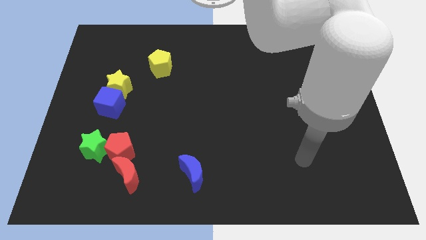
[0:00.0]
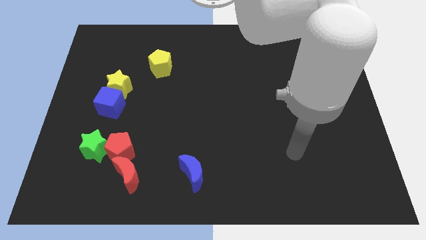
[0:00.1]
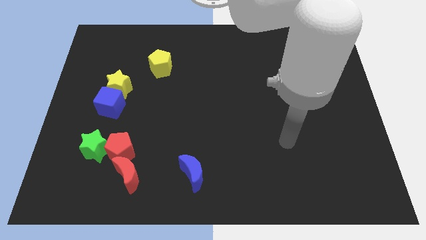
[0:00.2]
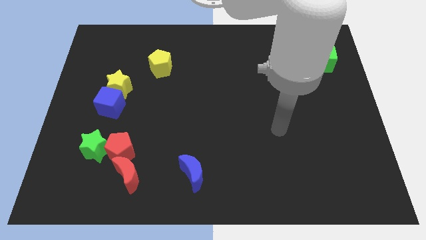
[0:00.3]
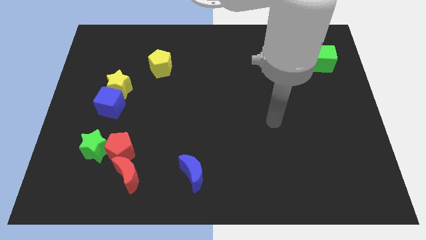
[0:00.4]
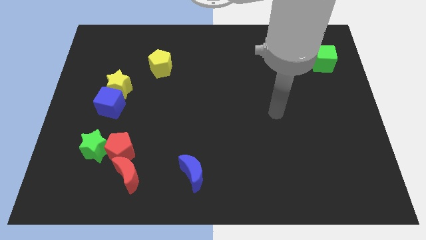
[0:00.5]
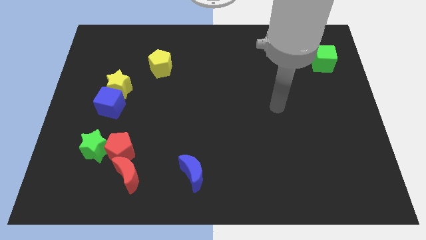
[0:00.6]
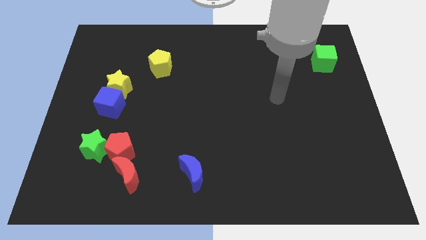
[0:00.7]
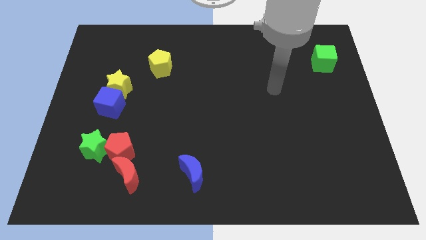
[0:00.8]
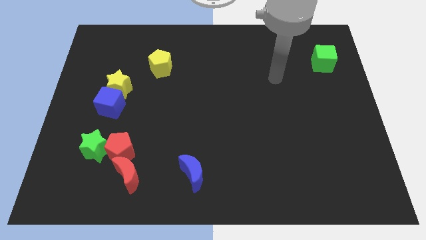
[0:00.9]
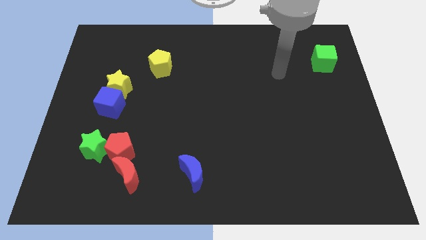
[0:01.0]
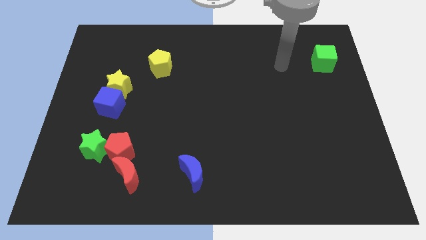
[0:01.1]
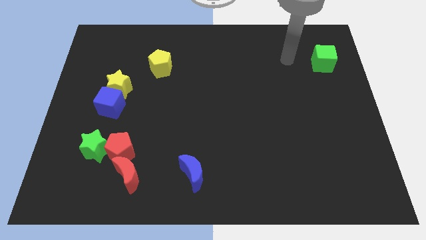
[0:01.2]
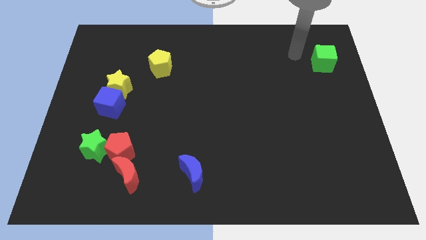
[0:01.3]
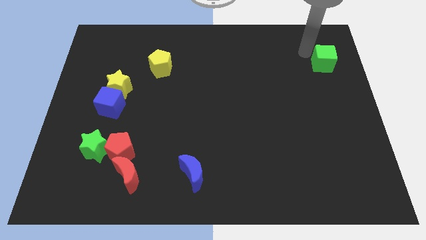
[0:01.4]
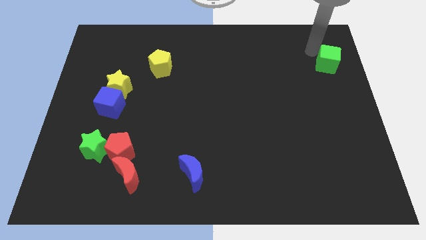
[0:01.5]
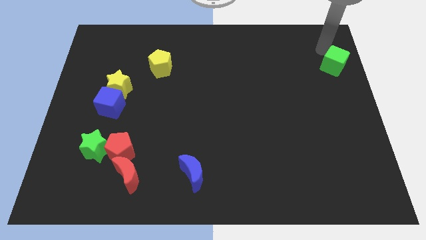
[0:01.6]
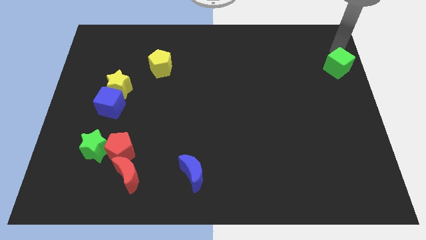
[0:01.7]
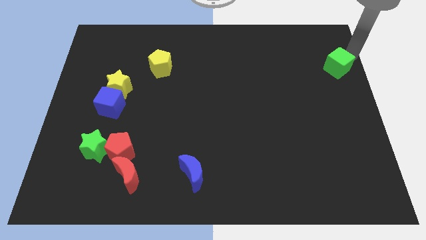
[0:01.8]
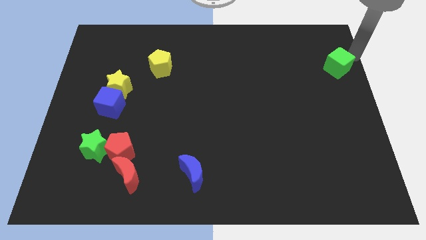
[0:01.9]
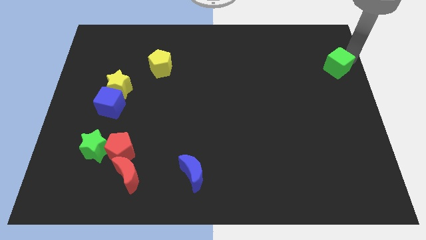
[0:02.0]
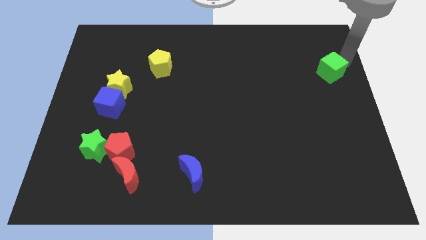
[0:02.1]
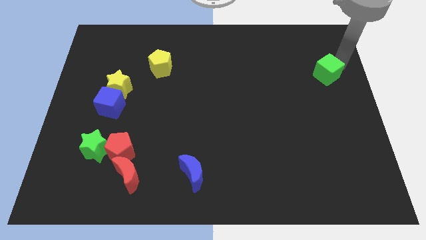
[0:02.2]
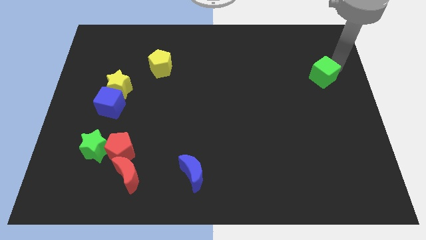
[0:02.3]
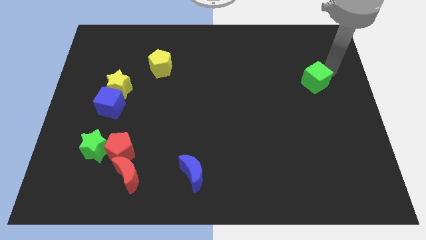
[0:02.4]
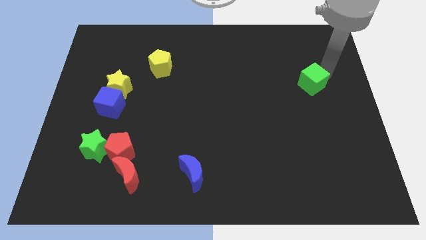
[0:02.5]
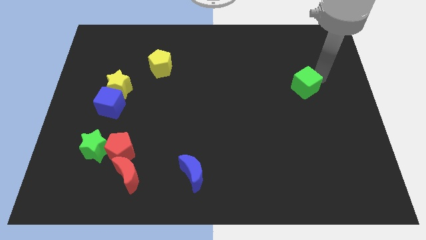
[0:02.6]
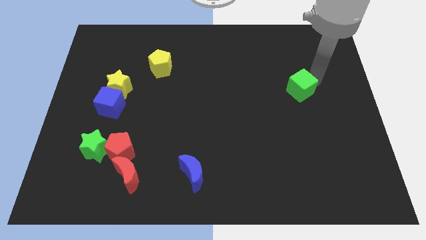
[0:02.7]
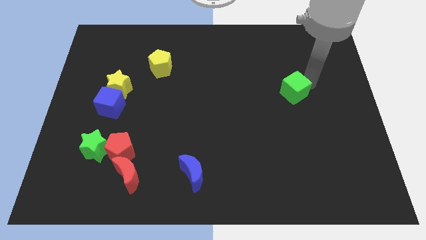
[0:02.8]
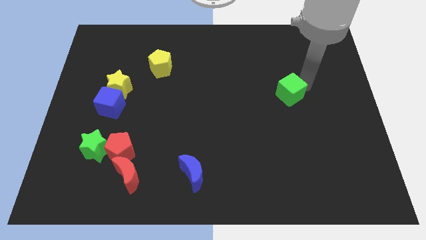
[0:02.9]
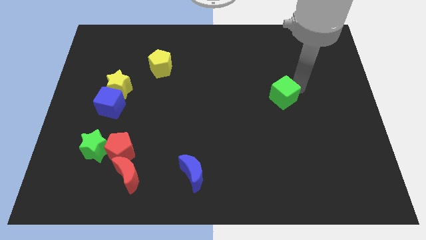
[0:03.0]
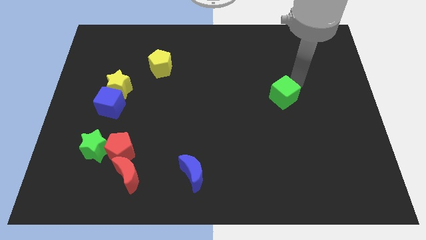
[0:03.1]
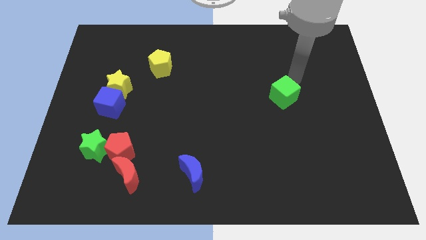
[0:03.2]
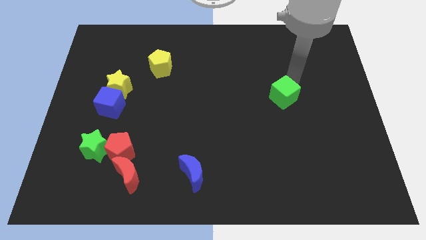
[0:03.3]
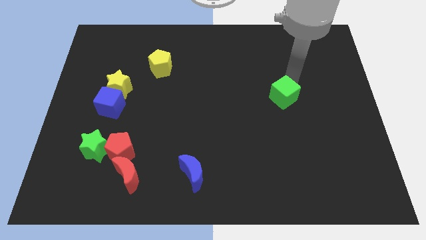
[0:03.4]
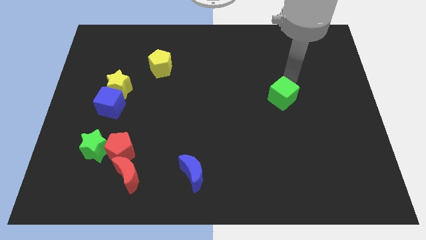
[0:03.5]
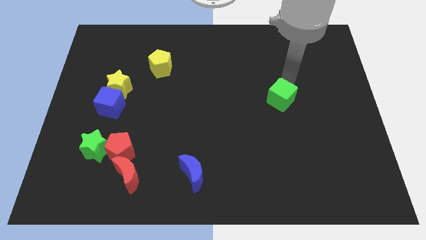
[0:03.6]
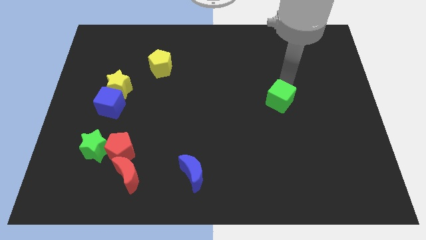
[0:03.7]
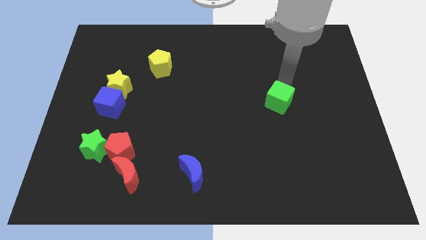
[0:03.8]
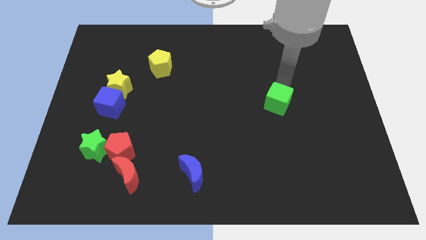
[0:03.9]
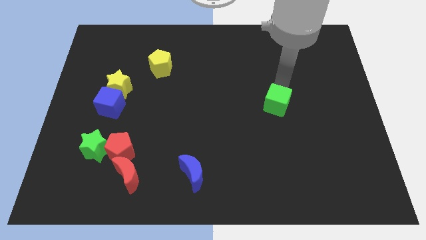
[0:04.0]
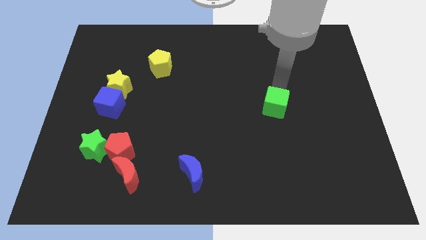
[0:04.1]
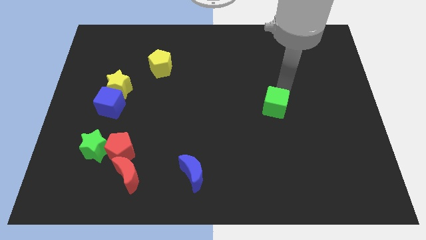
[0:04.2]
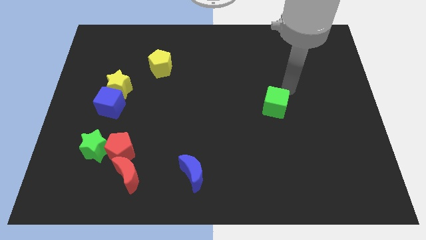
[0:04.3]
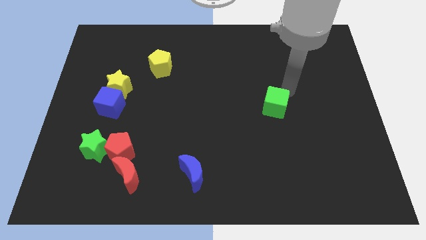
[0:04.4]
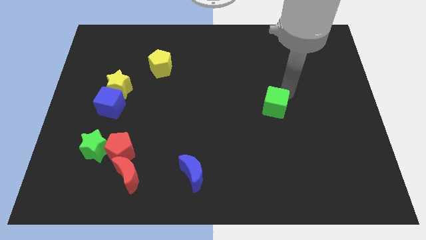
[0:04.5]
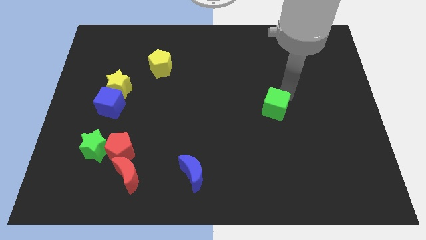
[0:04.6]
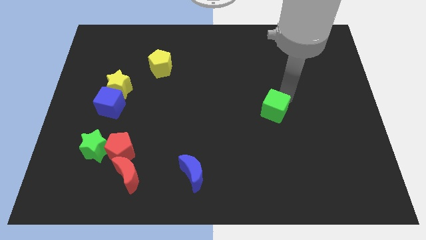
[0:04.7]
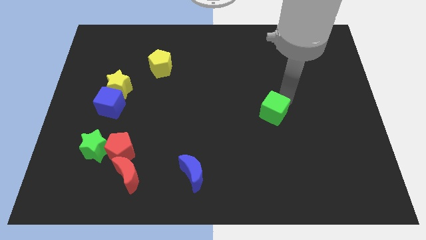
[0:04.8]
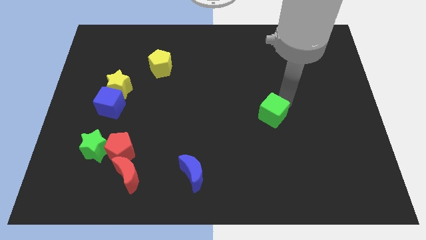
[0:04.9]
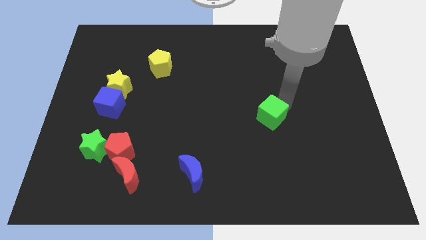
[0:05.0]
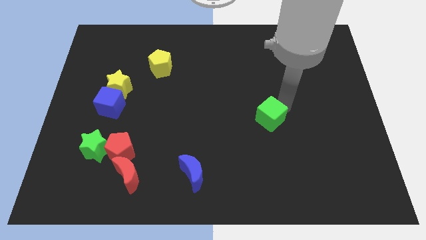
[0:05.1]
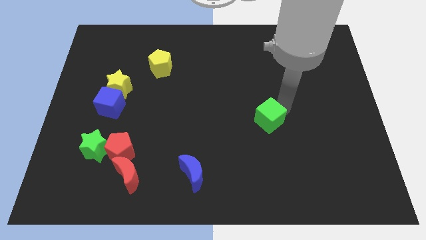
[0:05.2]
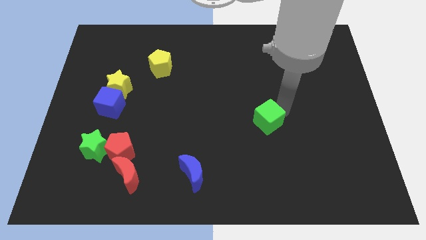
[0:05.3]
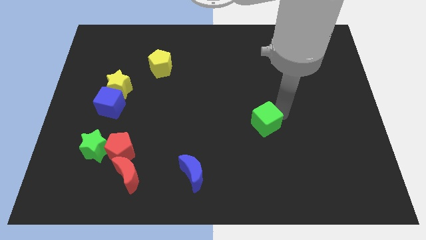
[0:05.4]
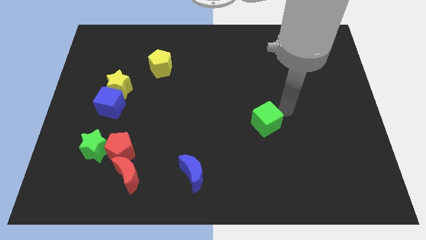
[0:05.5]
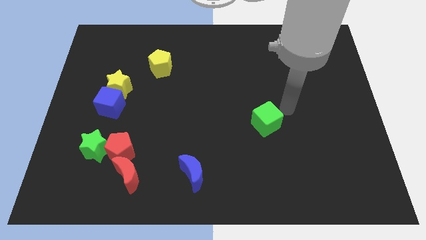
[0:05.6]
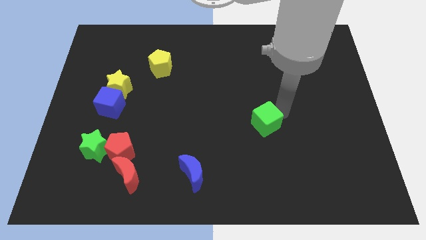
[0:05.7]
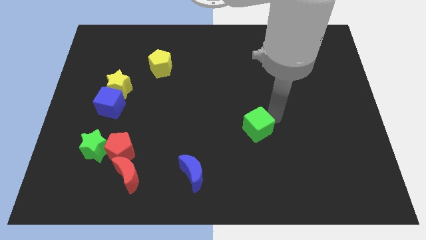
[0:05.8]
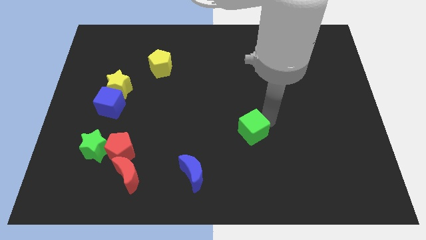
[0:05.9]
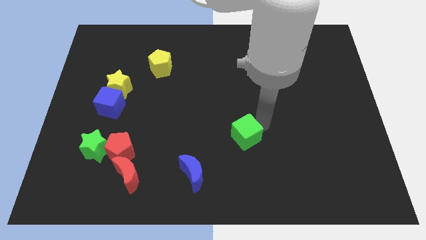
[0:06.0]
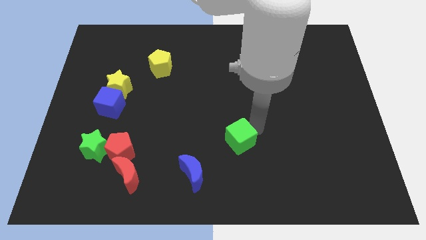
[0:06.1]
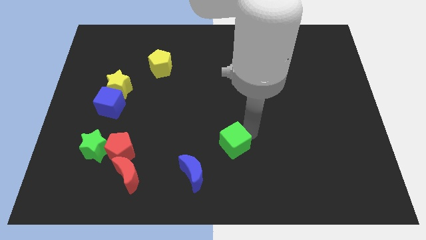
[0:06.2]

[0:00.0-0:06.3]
put the green cube to the top right of the blue moon

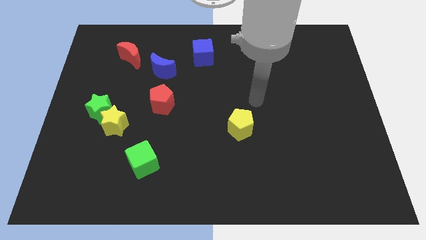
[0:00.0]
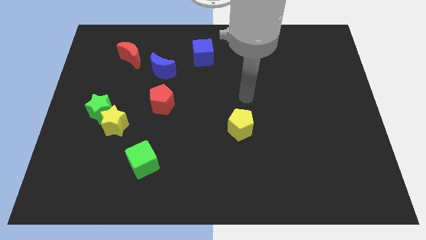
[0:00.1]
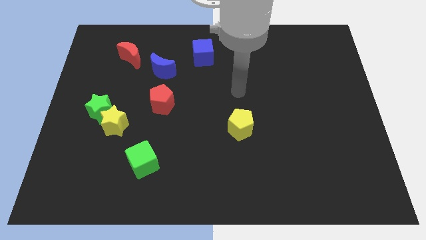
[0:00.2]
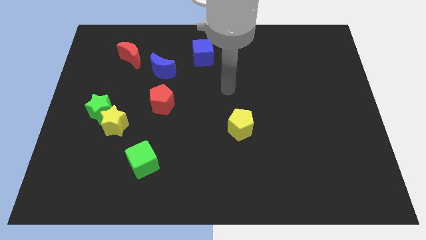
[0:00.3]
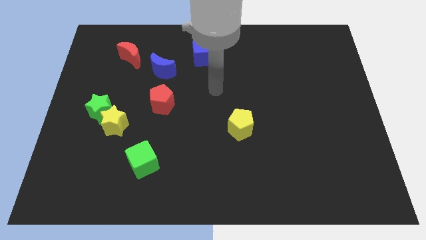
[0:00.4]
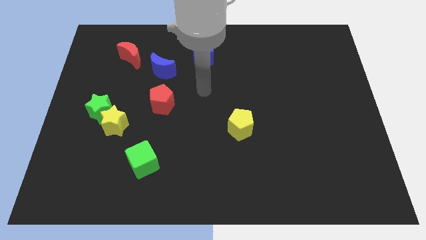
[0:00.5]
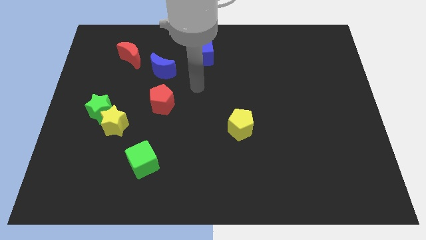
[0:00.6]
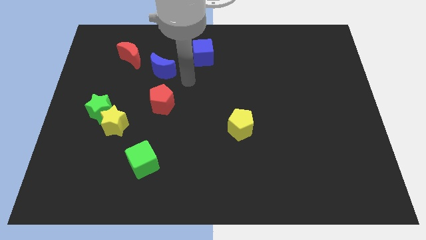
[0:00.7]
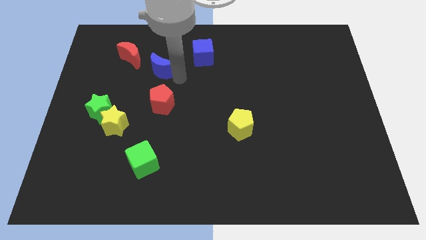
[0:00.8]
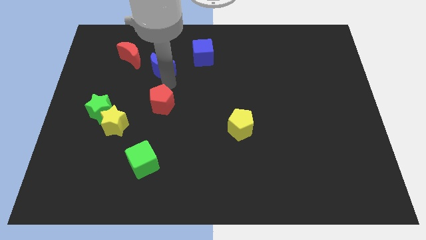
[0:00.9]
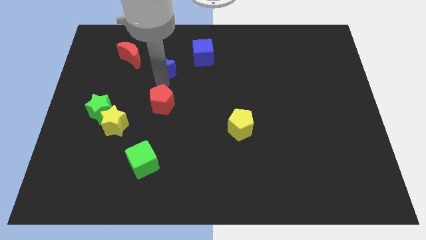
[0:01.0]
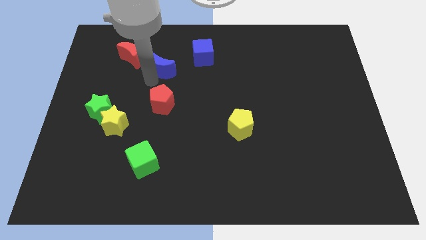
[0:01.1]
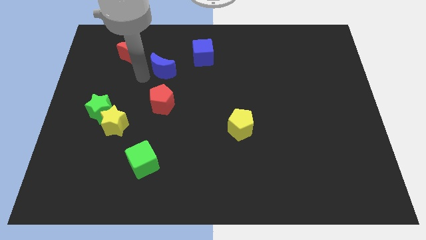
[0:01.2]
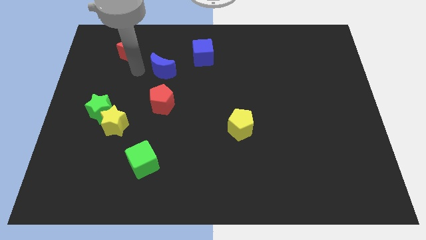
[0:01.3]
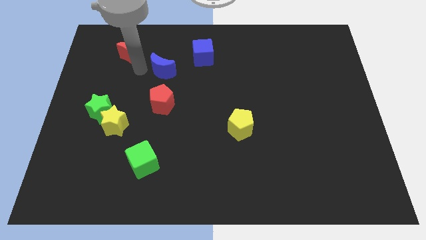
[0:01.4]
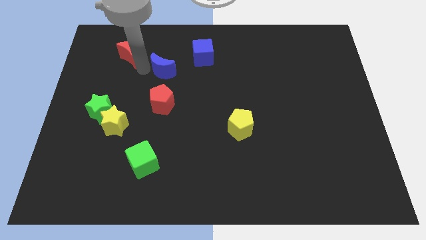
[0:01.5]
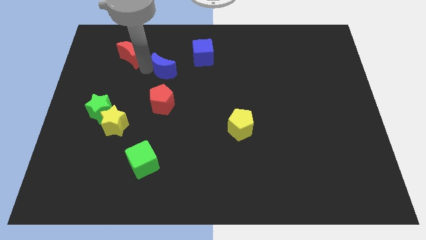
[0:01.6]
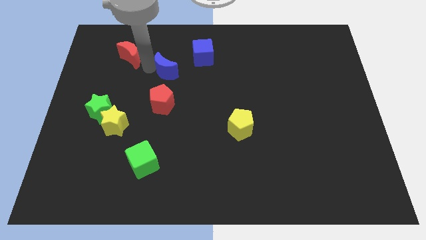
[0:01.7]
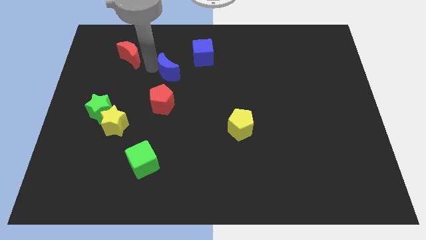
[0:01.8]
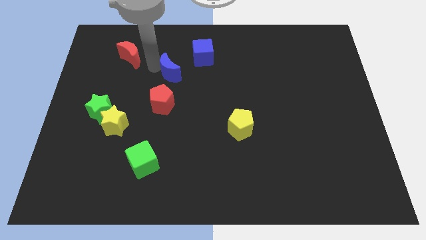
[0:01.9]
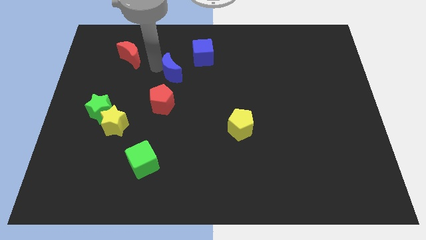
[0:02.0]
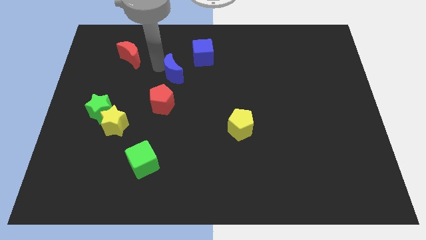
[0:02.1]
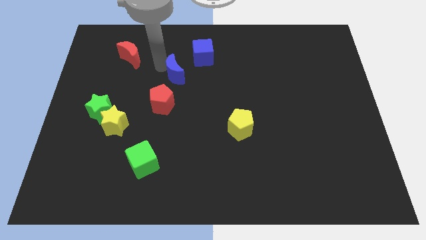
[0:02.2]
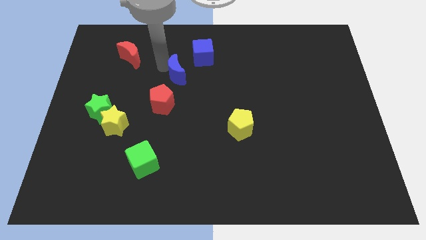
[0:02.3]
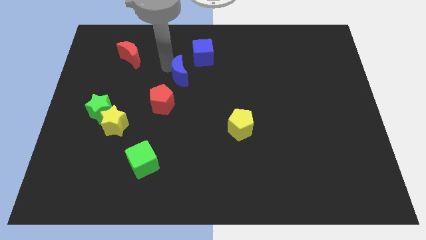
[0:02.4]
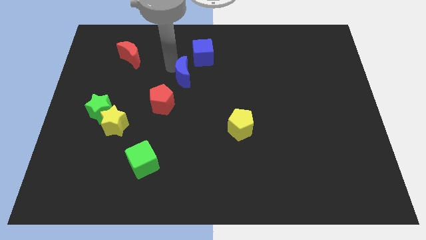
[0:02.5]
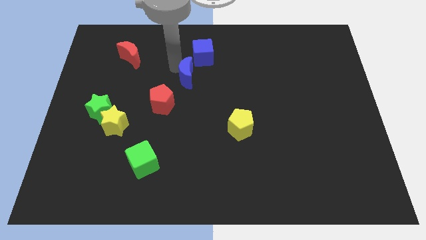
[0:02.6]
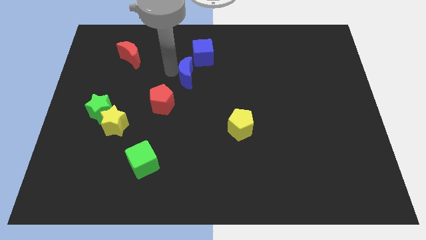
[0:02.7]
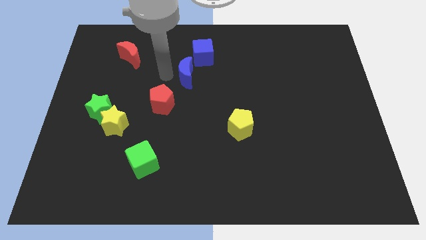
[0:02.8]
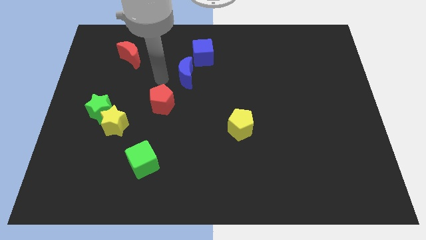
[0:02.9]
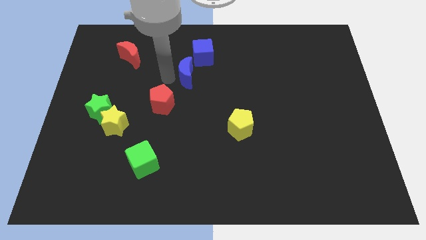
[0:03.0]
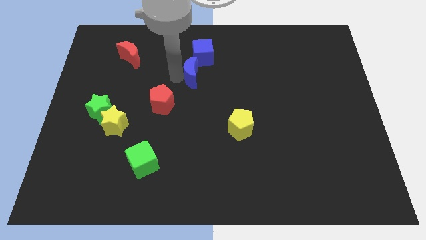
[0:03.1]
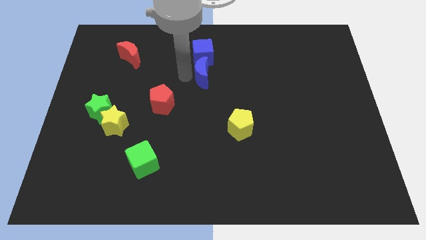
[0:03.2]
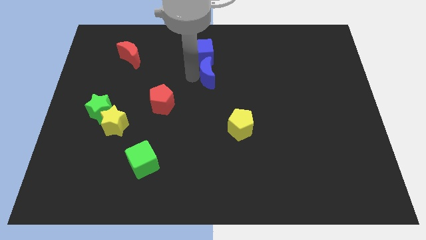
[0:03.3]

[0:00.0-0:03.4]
push the blue moon to the bottom right side of the blue cube
